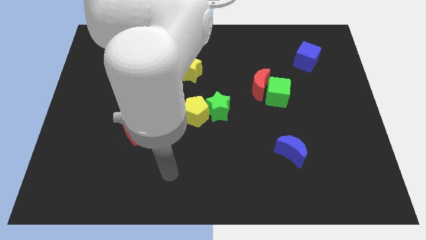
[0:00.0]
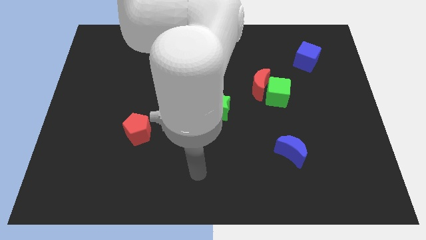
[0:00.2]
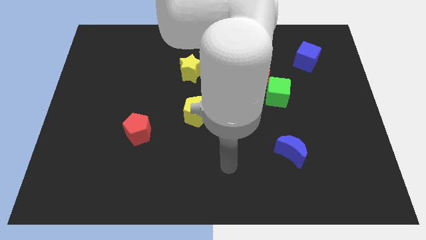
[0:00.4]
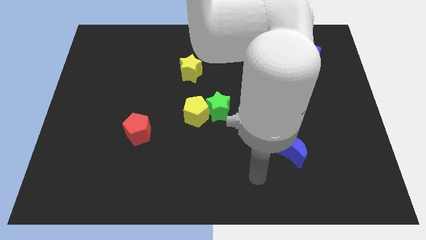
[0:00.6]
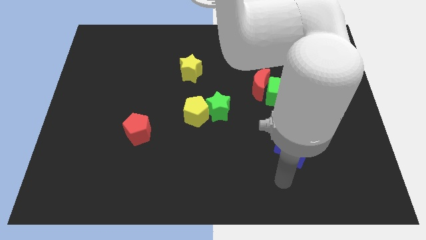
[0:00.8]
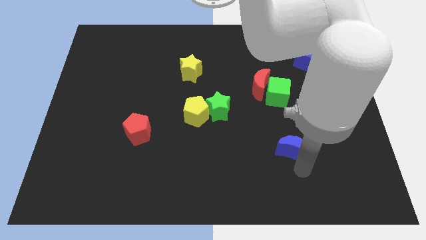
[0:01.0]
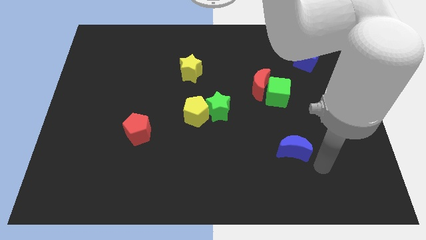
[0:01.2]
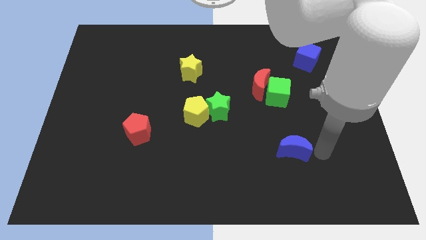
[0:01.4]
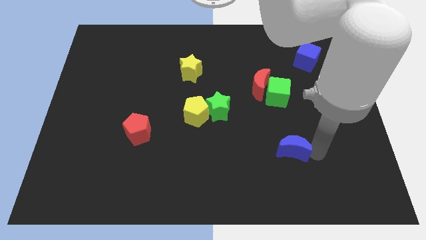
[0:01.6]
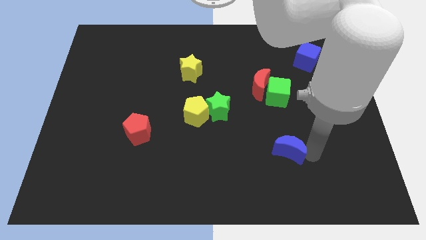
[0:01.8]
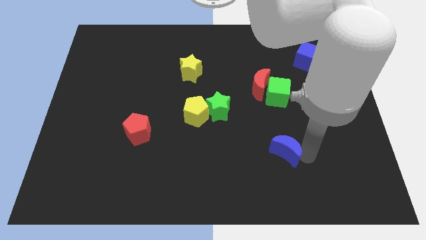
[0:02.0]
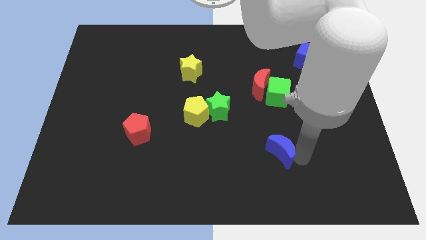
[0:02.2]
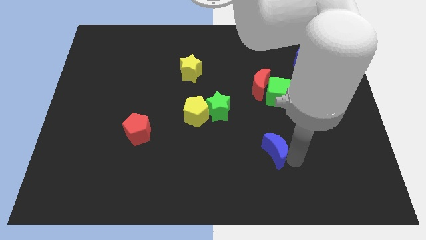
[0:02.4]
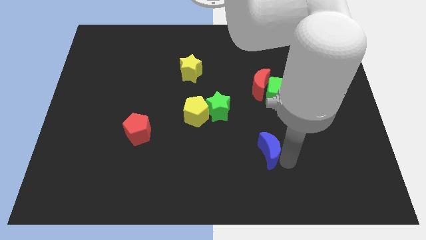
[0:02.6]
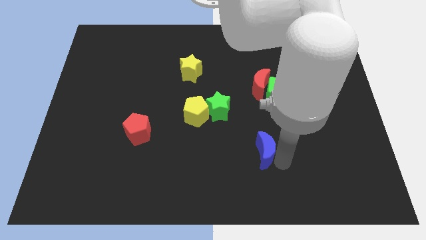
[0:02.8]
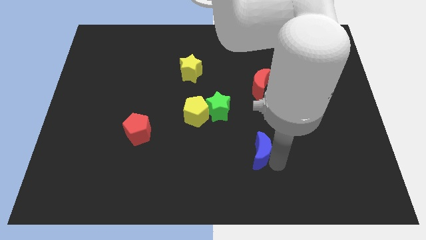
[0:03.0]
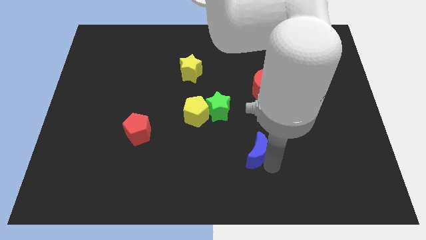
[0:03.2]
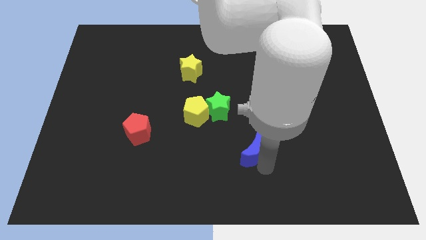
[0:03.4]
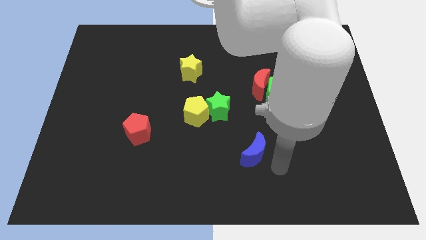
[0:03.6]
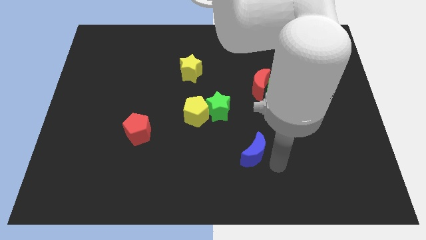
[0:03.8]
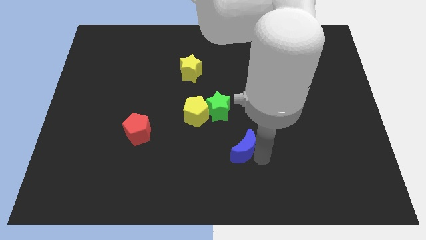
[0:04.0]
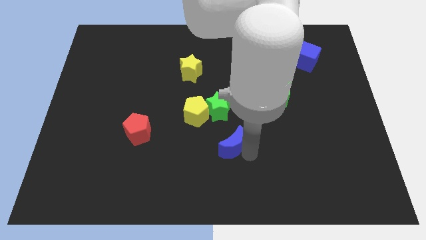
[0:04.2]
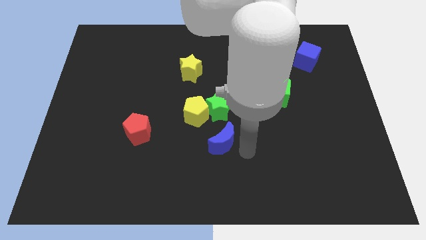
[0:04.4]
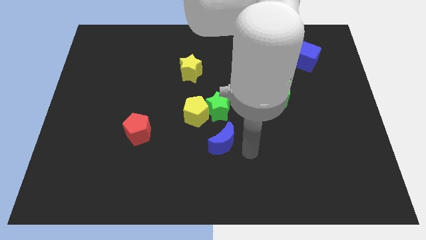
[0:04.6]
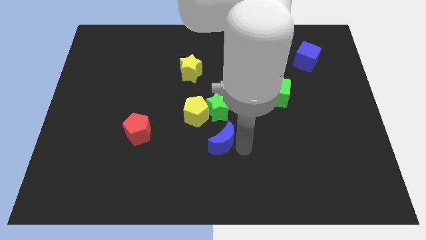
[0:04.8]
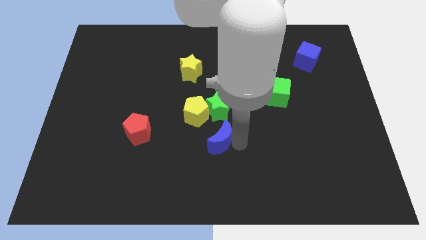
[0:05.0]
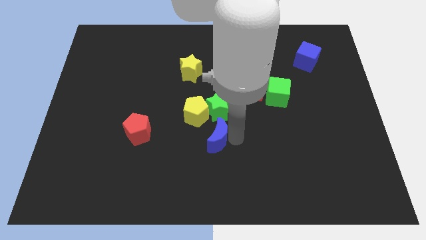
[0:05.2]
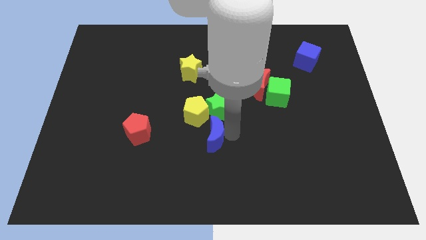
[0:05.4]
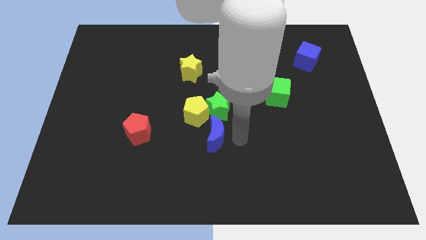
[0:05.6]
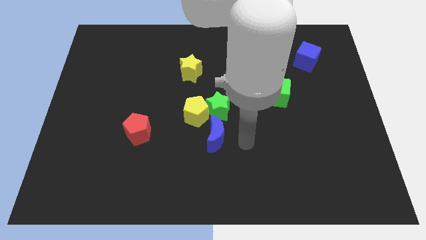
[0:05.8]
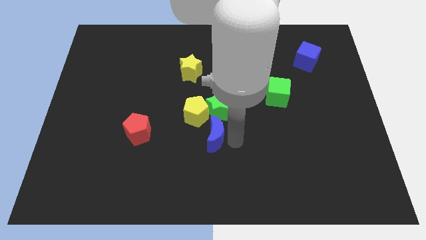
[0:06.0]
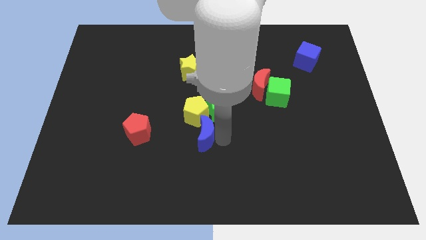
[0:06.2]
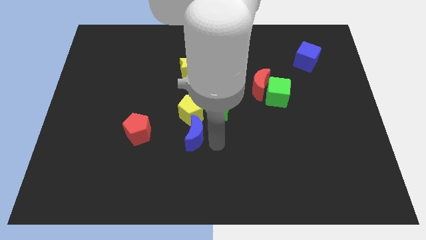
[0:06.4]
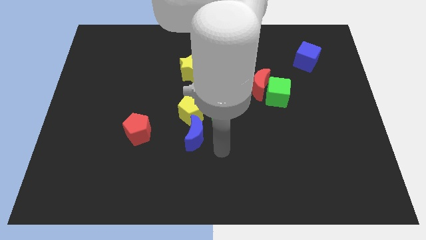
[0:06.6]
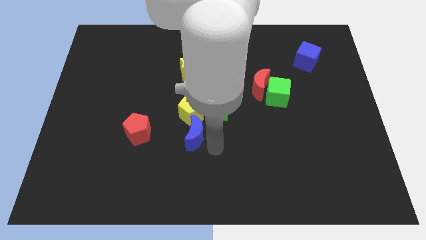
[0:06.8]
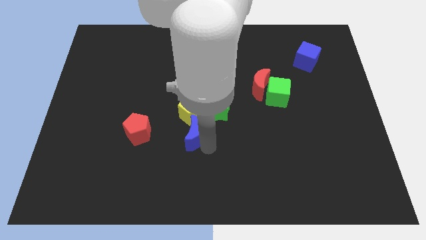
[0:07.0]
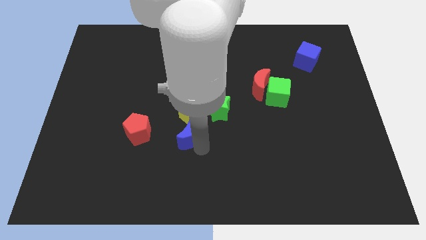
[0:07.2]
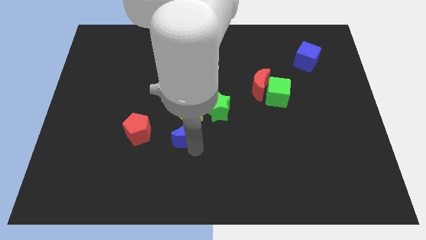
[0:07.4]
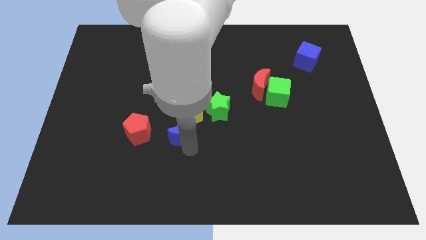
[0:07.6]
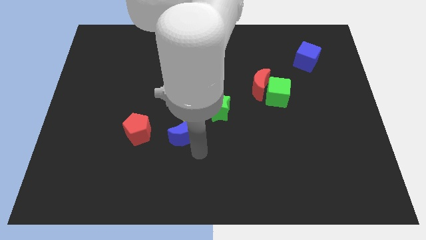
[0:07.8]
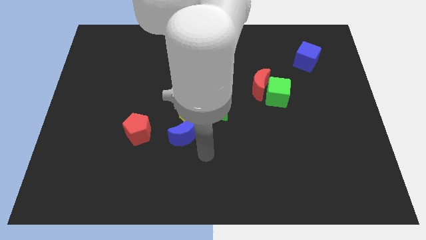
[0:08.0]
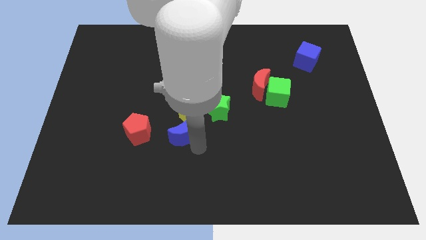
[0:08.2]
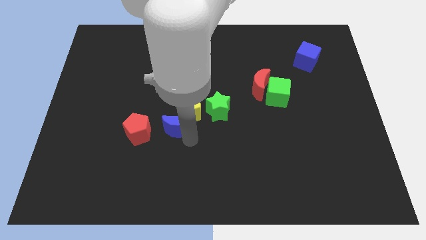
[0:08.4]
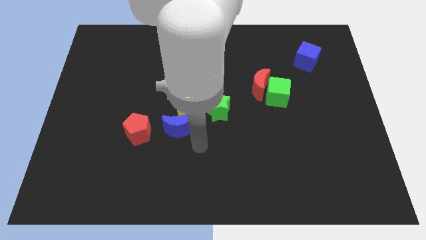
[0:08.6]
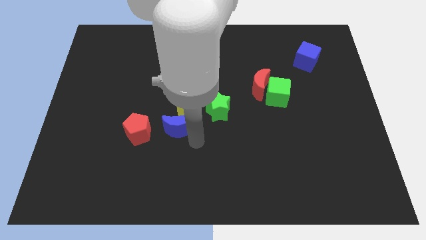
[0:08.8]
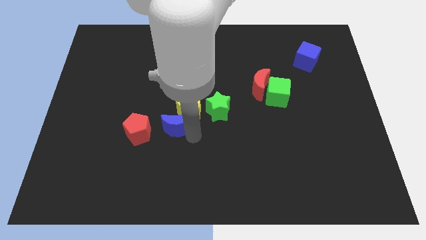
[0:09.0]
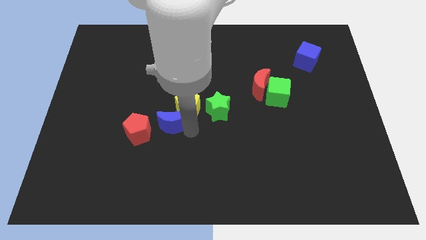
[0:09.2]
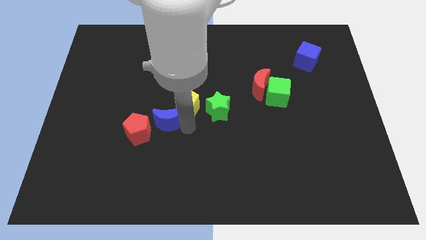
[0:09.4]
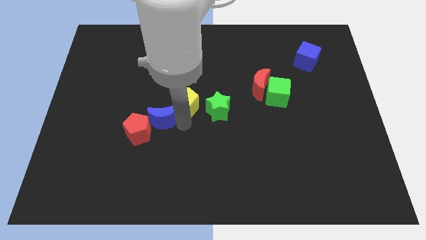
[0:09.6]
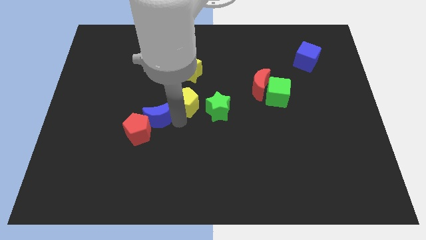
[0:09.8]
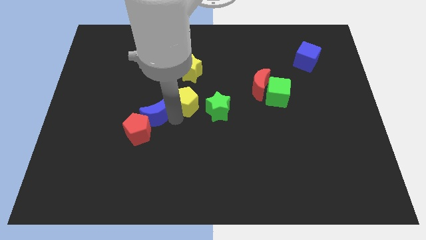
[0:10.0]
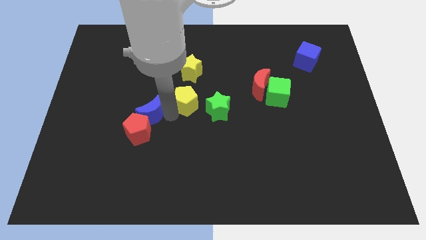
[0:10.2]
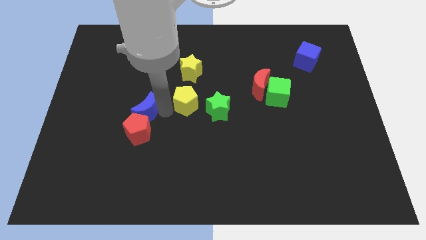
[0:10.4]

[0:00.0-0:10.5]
move the blue moon to the top left of the red pentagon

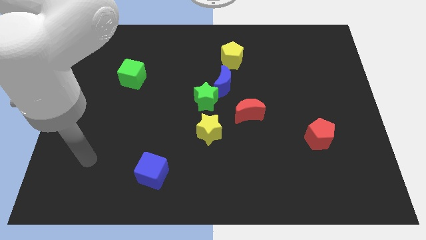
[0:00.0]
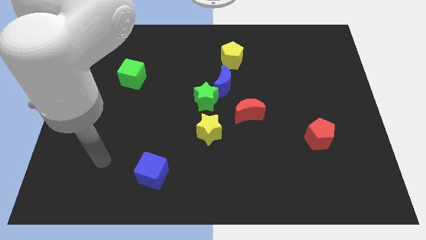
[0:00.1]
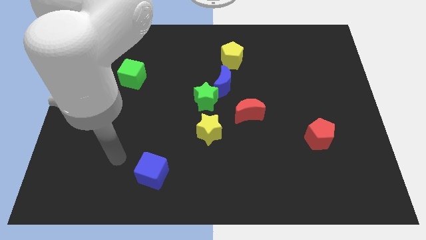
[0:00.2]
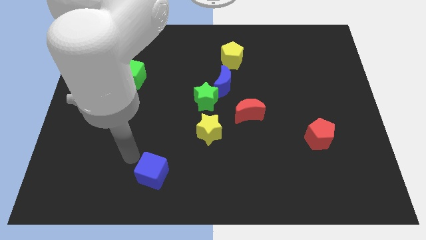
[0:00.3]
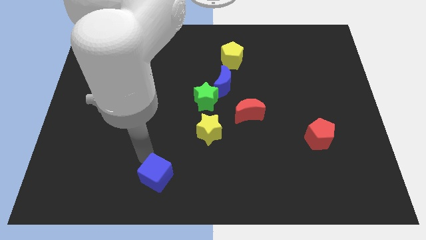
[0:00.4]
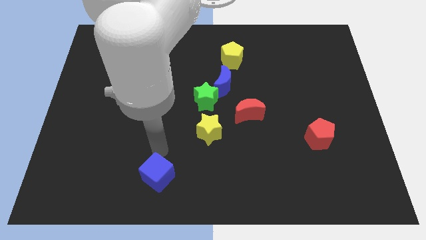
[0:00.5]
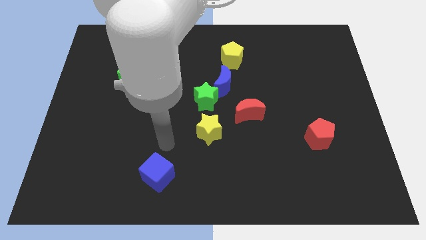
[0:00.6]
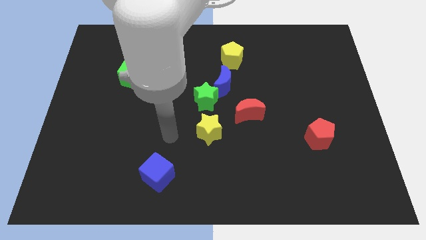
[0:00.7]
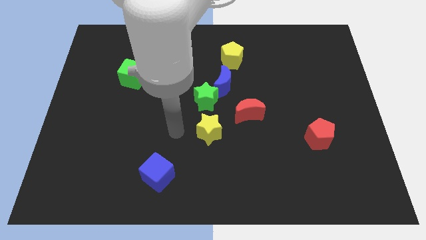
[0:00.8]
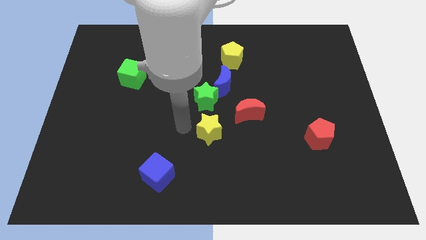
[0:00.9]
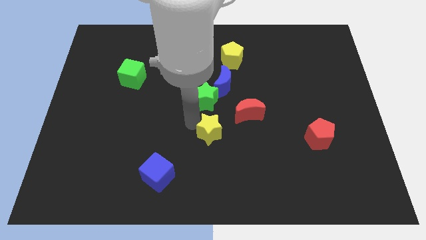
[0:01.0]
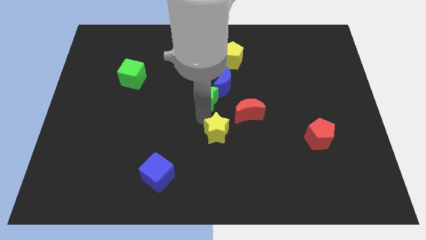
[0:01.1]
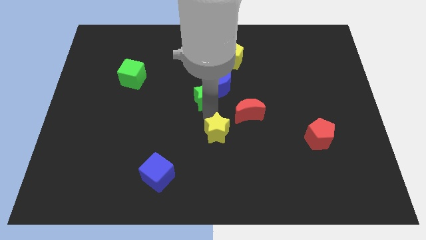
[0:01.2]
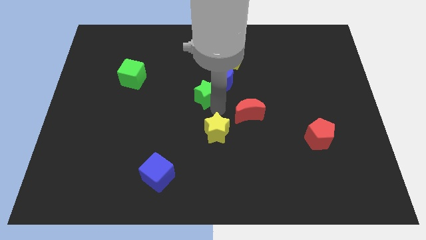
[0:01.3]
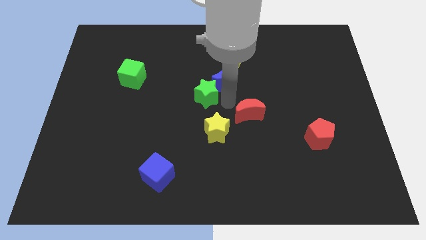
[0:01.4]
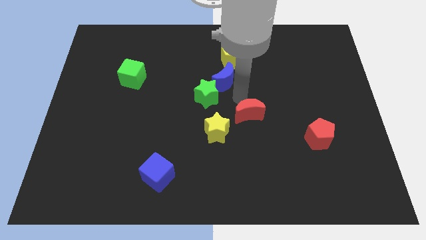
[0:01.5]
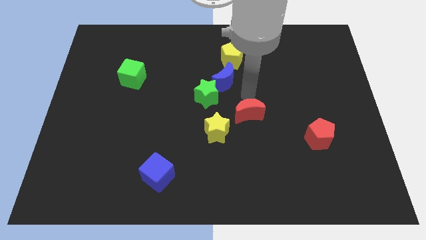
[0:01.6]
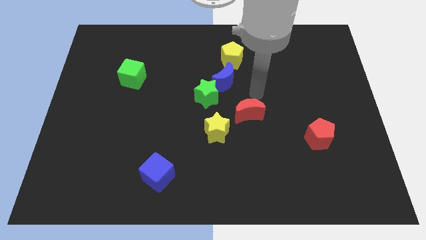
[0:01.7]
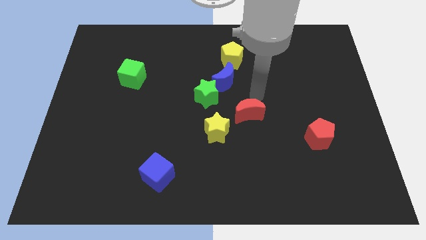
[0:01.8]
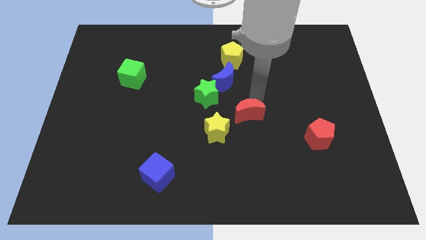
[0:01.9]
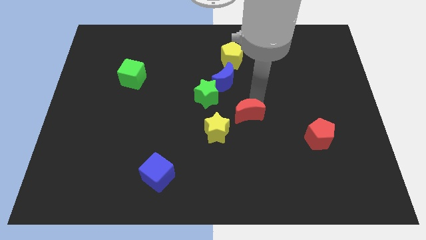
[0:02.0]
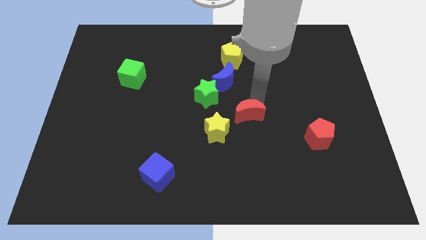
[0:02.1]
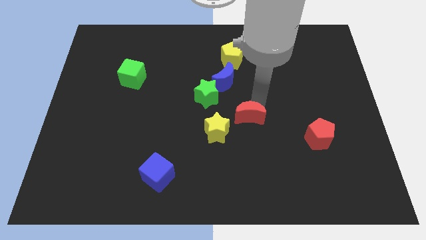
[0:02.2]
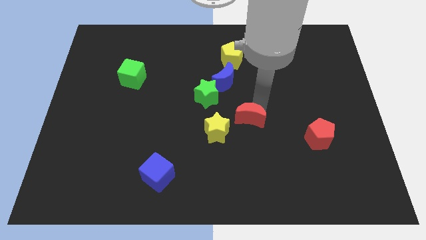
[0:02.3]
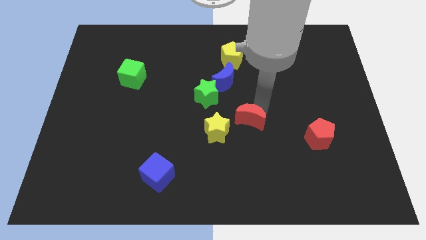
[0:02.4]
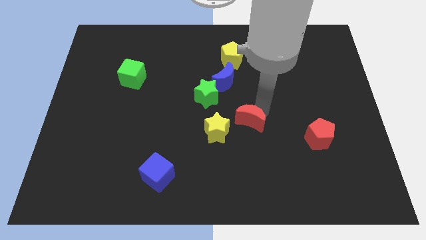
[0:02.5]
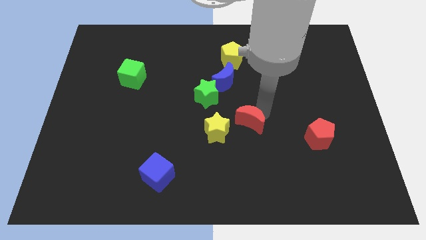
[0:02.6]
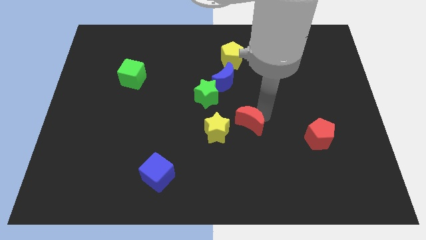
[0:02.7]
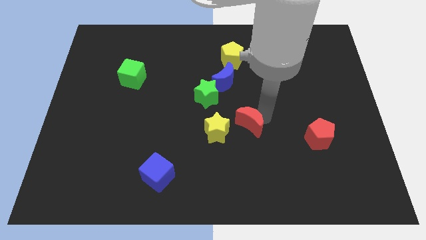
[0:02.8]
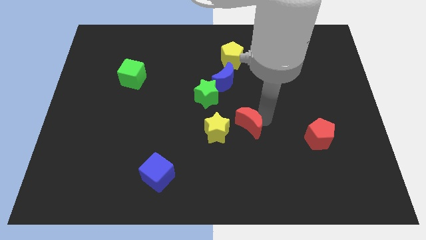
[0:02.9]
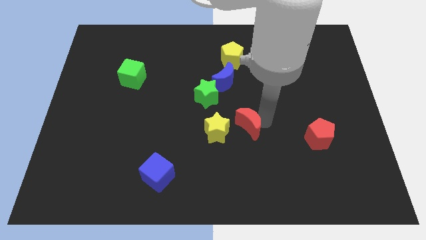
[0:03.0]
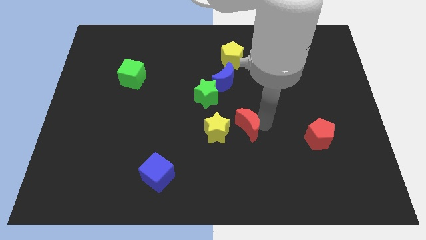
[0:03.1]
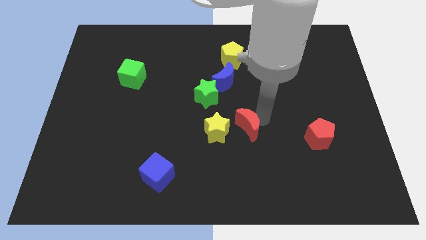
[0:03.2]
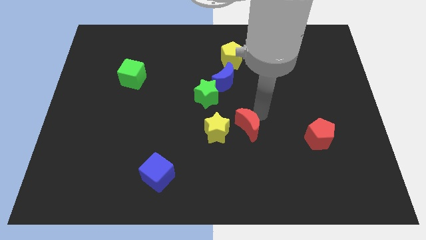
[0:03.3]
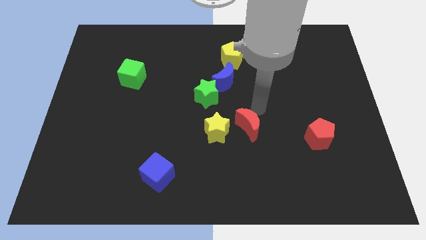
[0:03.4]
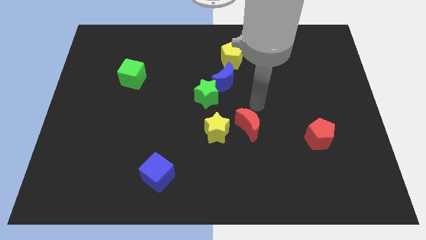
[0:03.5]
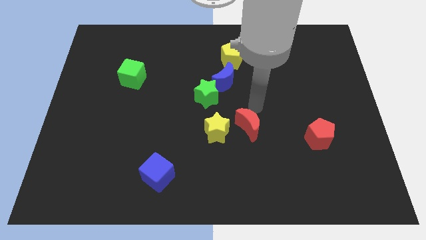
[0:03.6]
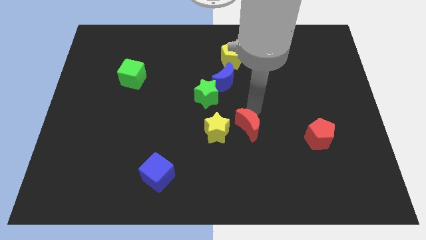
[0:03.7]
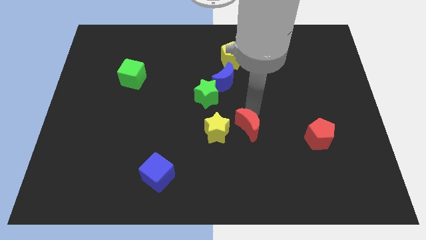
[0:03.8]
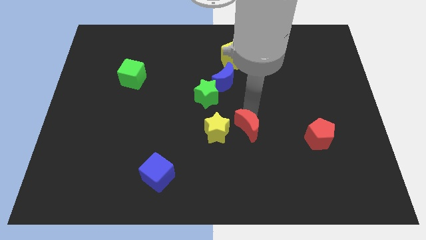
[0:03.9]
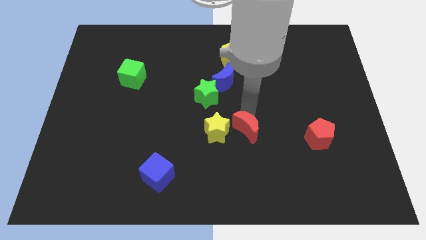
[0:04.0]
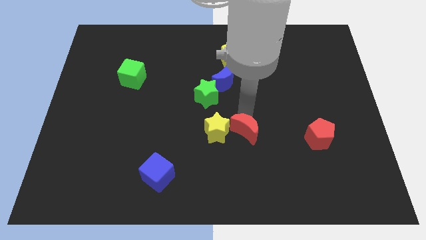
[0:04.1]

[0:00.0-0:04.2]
slide the red moon to the bottom right side of the yellow star
